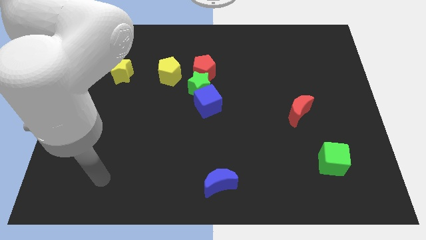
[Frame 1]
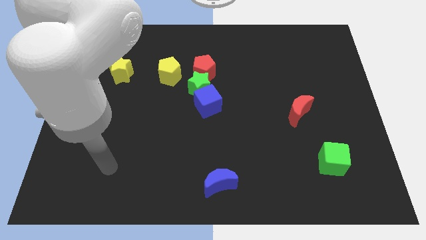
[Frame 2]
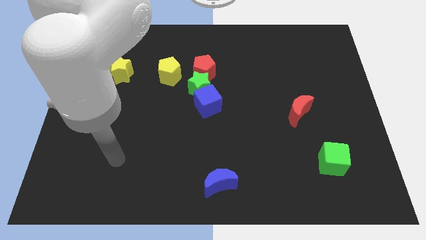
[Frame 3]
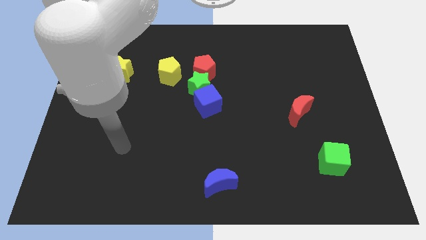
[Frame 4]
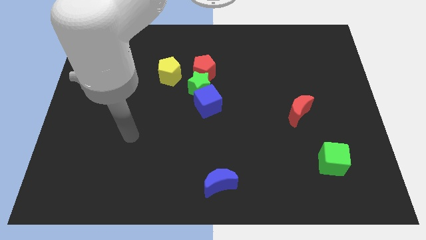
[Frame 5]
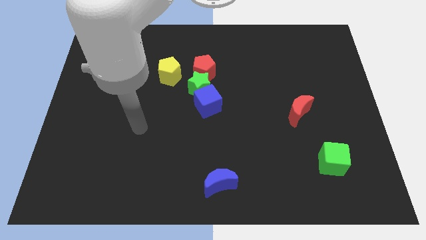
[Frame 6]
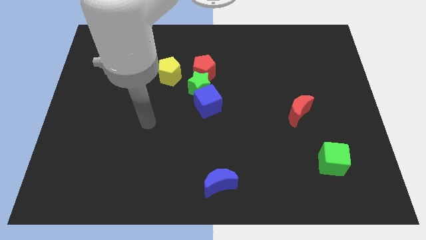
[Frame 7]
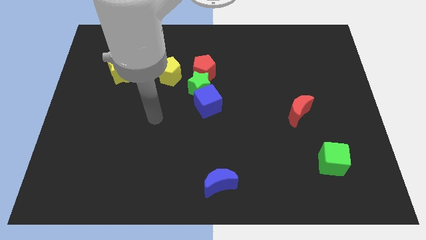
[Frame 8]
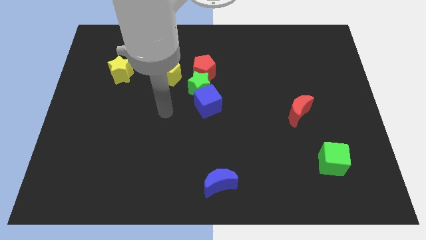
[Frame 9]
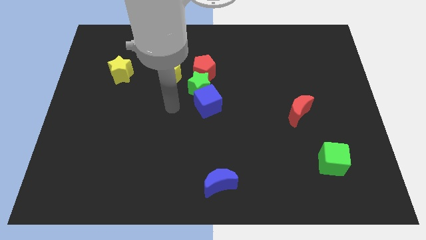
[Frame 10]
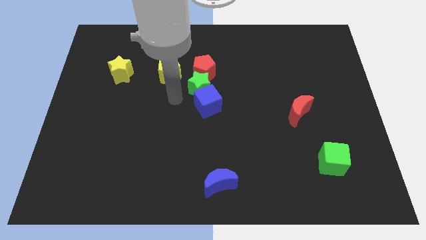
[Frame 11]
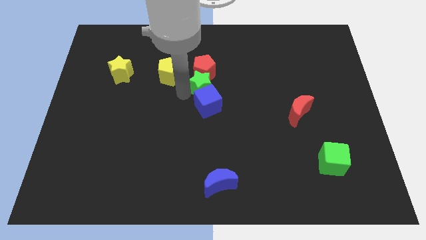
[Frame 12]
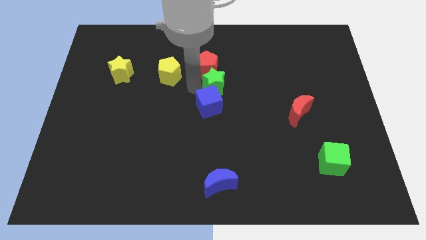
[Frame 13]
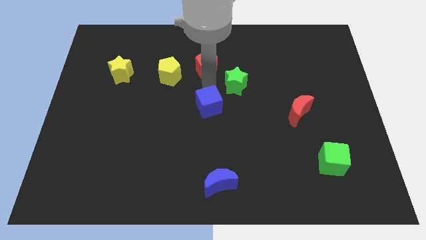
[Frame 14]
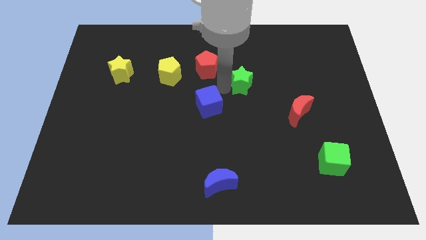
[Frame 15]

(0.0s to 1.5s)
pull the blue cube apart from the green star

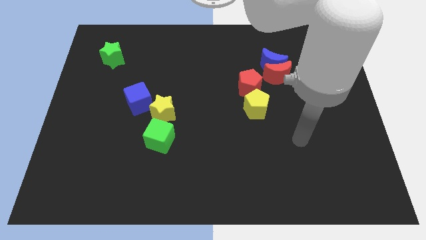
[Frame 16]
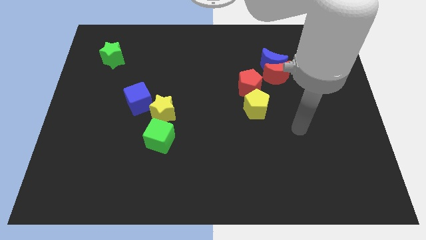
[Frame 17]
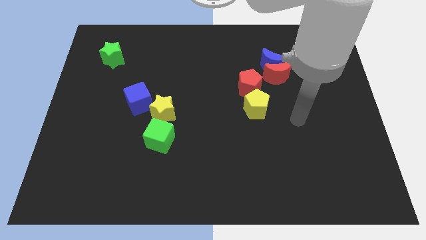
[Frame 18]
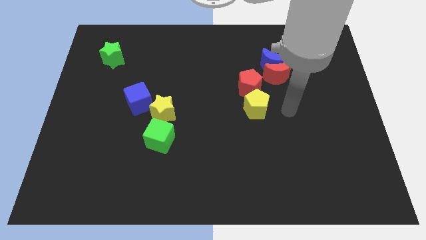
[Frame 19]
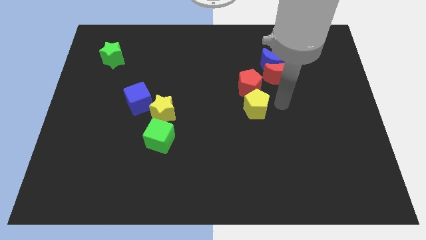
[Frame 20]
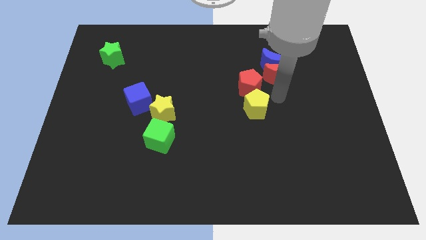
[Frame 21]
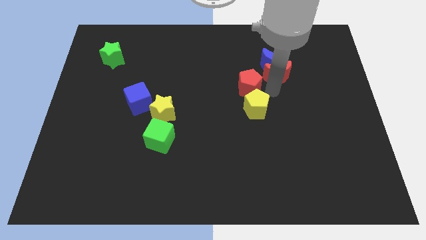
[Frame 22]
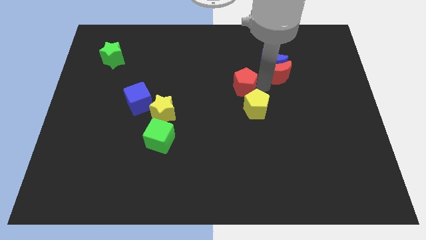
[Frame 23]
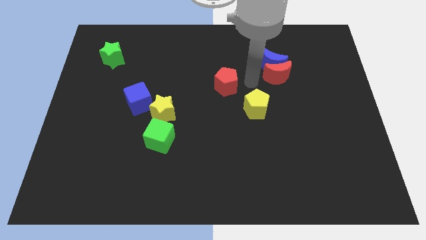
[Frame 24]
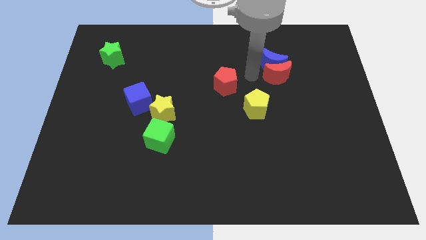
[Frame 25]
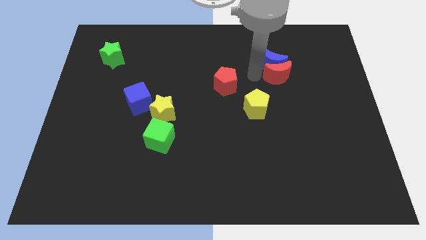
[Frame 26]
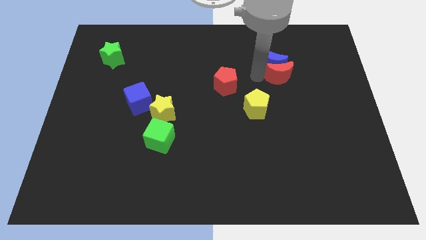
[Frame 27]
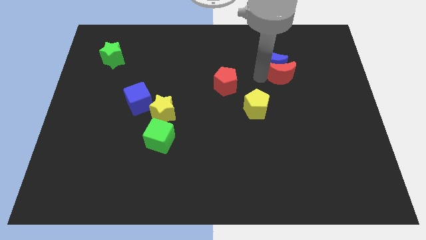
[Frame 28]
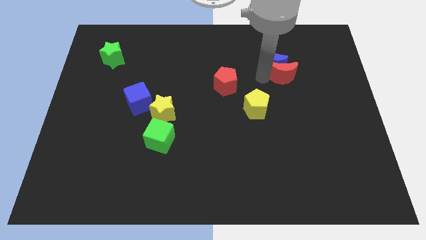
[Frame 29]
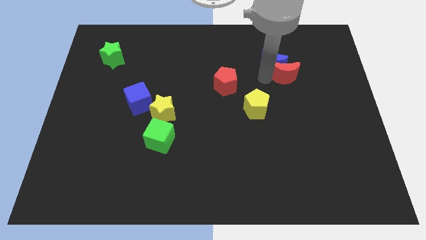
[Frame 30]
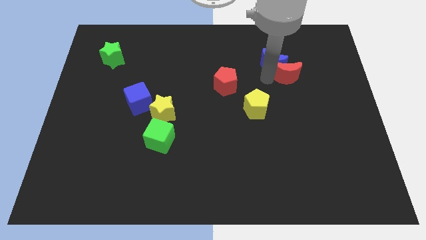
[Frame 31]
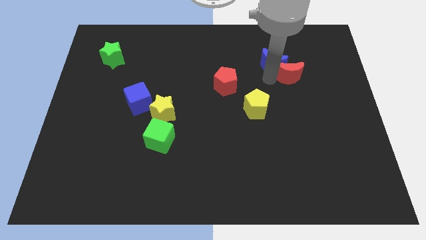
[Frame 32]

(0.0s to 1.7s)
pull the red moon apart from the blue moon and red pentagon

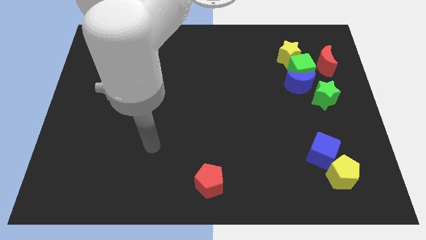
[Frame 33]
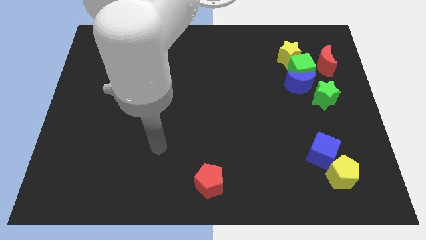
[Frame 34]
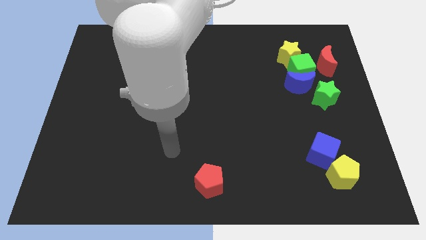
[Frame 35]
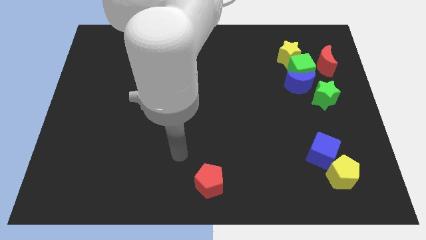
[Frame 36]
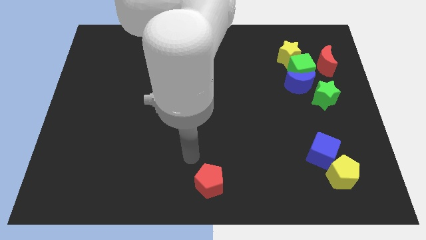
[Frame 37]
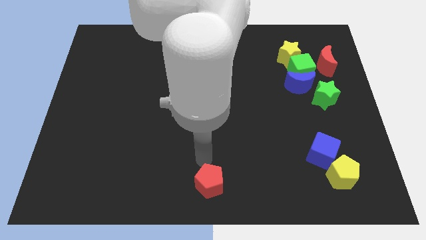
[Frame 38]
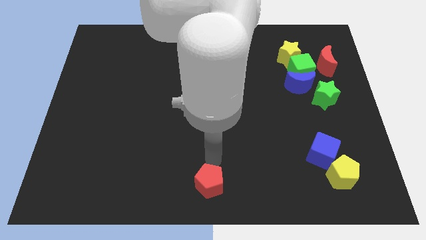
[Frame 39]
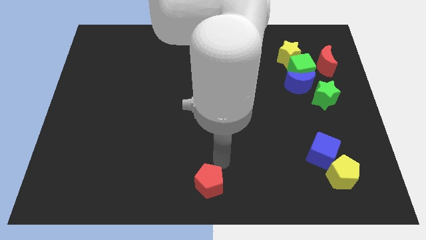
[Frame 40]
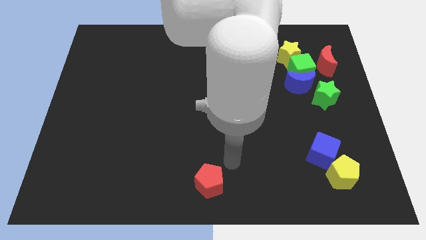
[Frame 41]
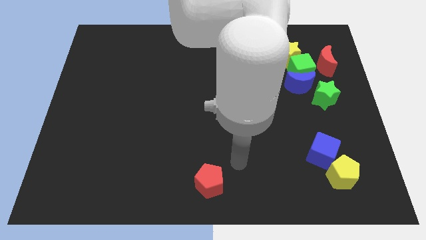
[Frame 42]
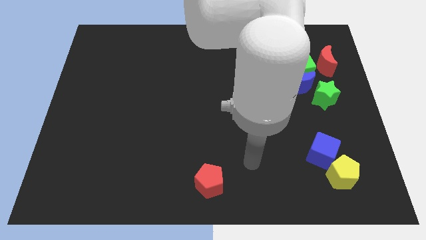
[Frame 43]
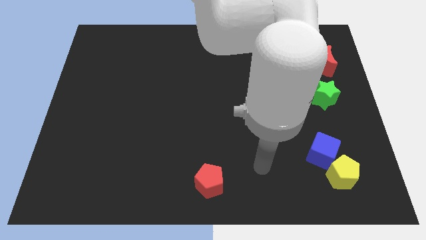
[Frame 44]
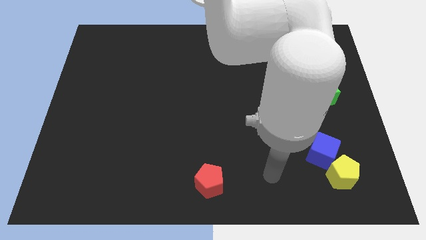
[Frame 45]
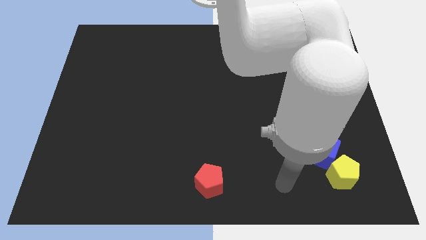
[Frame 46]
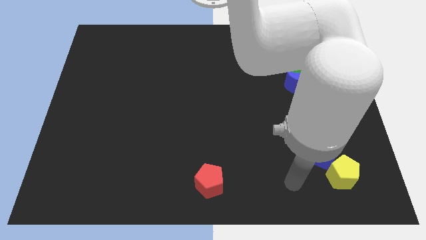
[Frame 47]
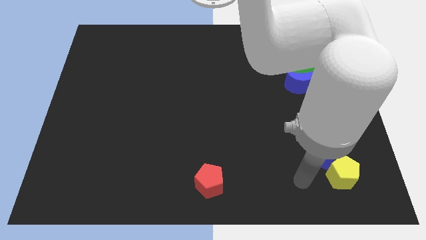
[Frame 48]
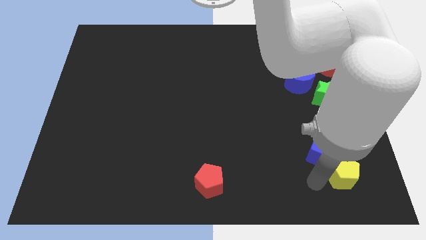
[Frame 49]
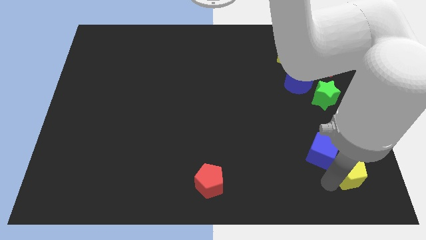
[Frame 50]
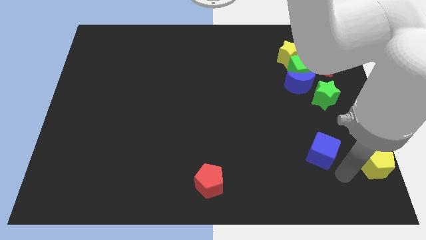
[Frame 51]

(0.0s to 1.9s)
move the blue cube away from the yellow pentagon

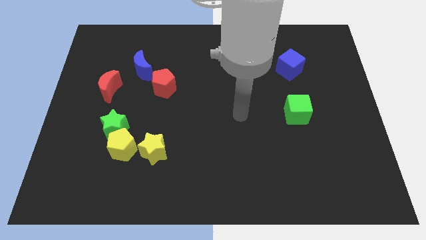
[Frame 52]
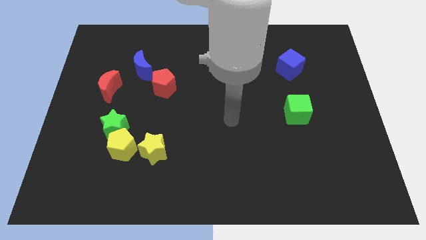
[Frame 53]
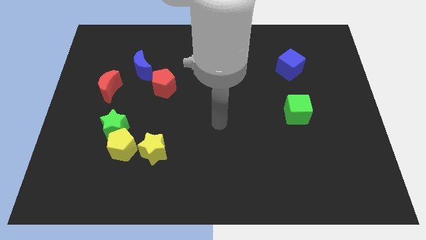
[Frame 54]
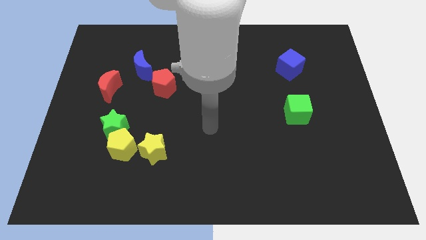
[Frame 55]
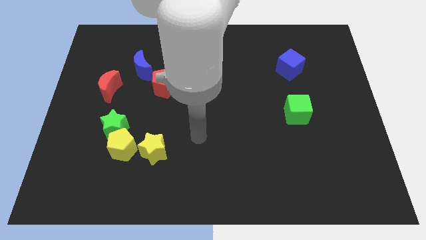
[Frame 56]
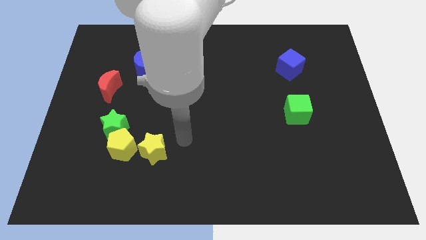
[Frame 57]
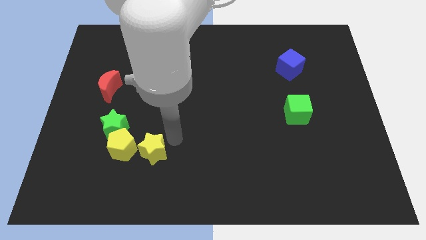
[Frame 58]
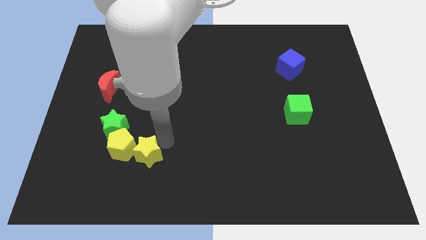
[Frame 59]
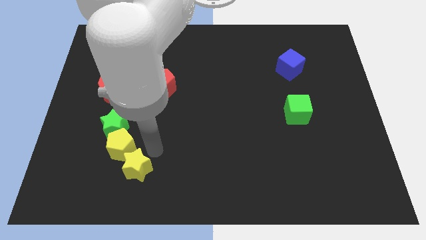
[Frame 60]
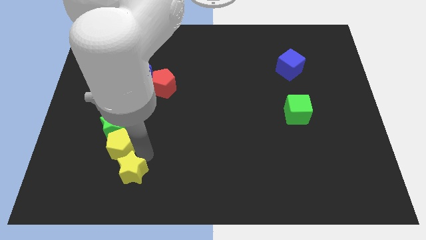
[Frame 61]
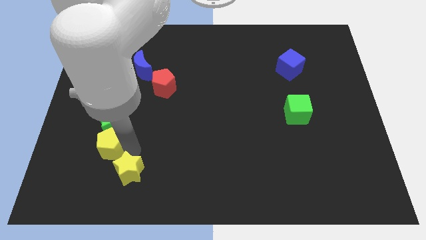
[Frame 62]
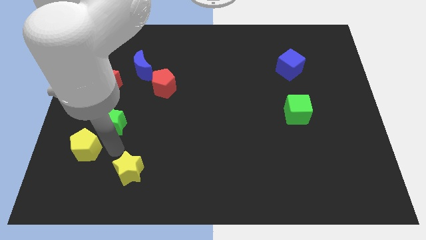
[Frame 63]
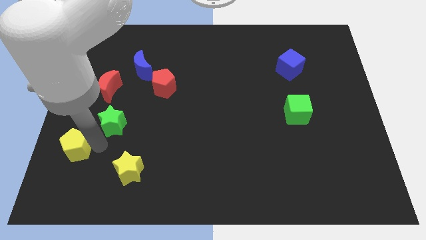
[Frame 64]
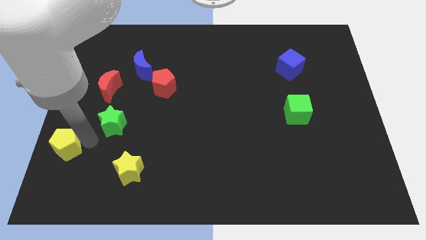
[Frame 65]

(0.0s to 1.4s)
move the green star away from the yellow pentagon

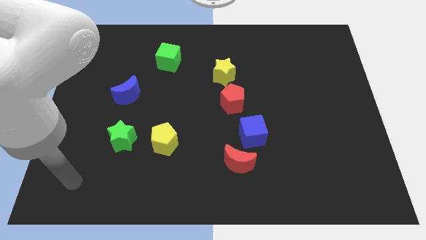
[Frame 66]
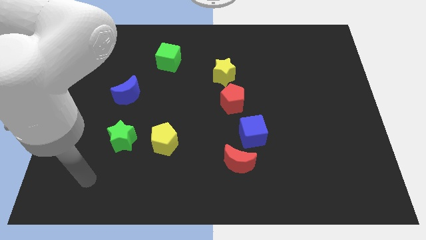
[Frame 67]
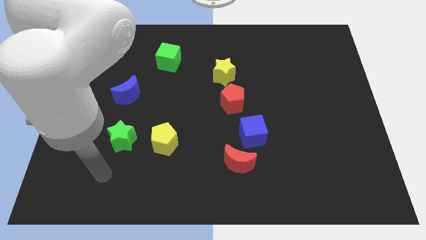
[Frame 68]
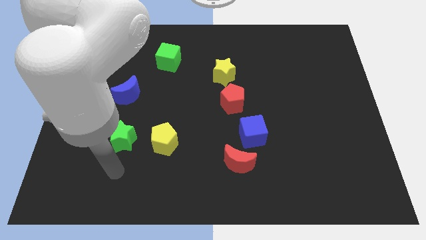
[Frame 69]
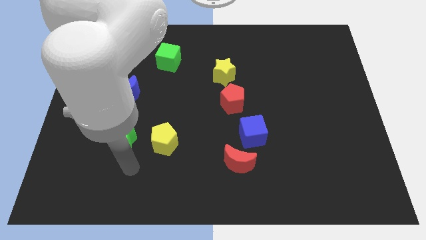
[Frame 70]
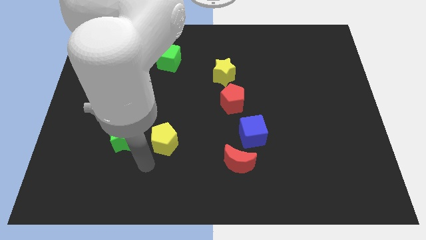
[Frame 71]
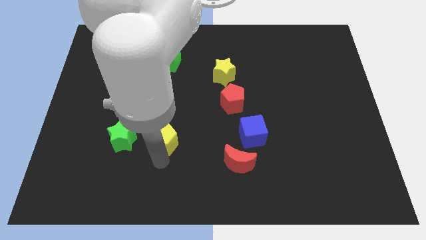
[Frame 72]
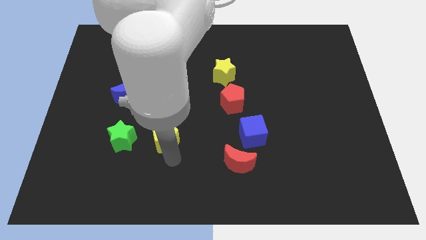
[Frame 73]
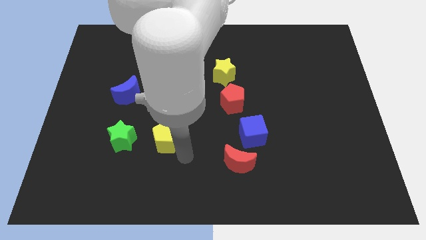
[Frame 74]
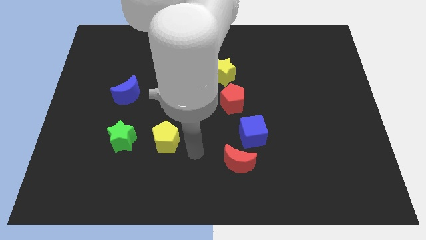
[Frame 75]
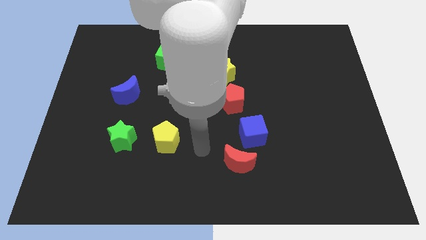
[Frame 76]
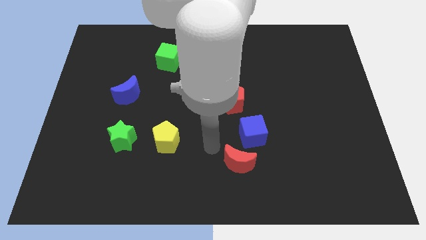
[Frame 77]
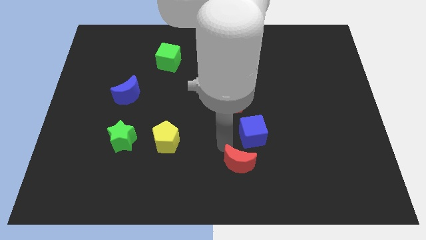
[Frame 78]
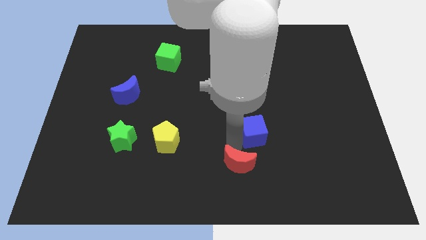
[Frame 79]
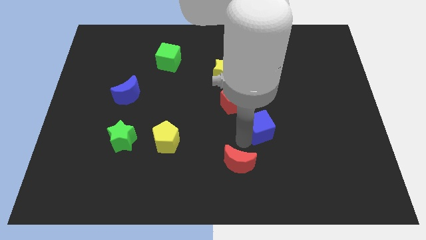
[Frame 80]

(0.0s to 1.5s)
pull the red moon apart from the blue cube

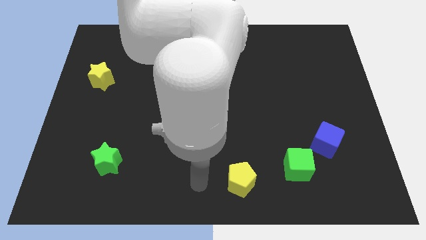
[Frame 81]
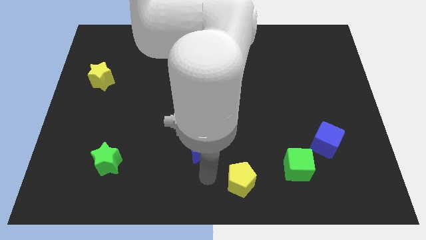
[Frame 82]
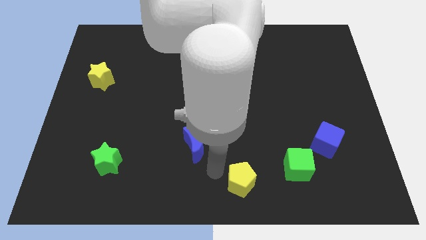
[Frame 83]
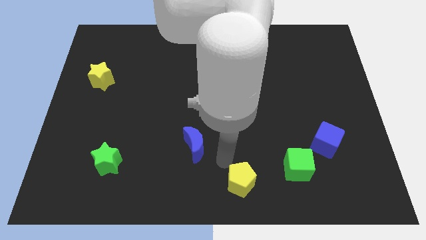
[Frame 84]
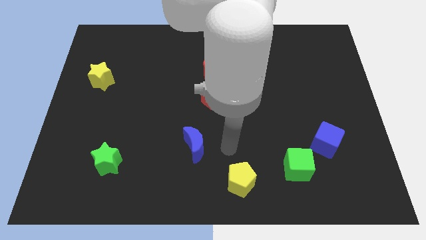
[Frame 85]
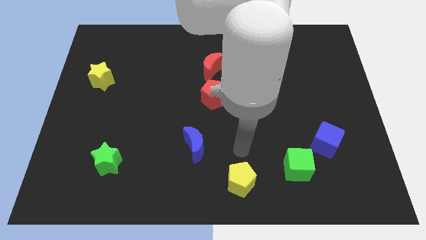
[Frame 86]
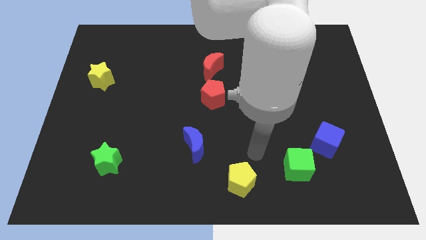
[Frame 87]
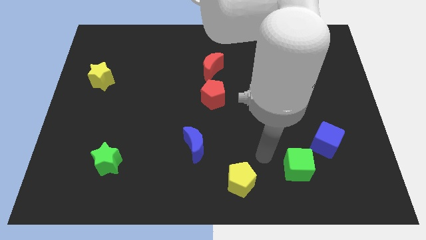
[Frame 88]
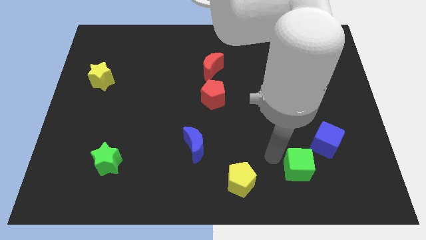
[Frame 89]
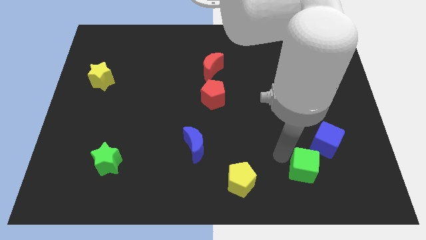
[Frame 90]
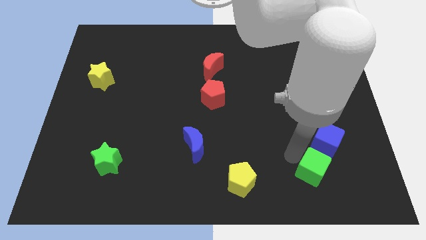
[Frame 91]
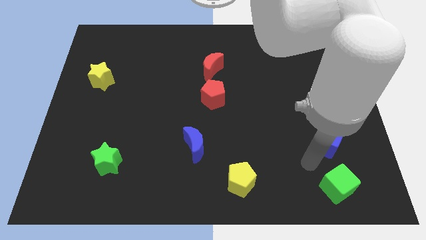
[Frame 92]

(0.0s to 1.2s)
pull the blue cube apart from the green cube

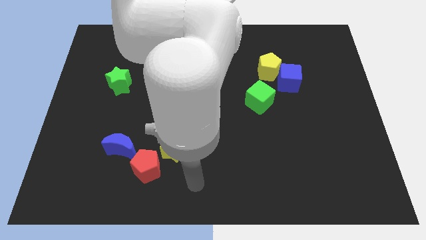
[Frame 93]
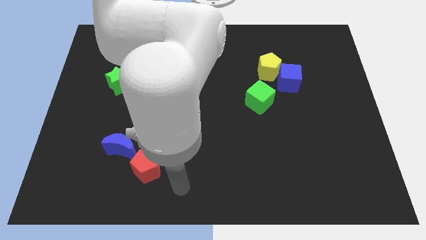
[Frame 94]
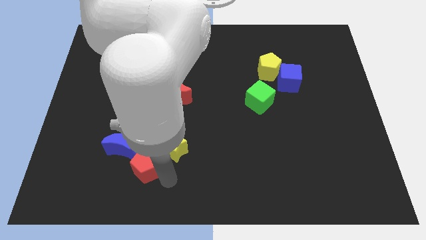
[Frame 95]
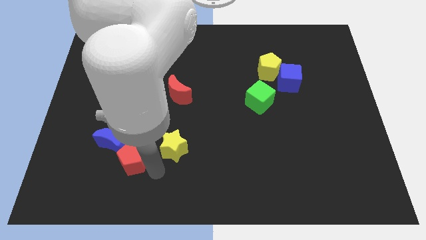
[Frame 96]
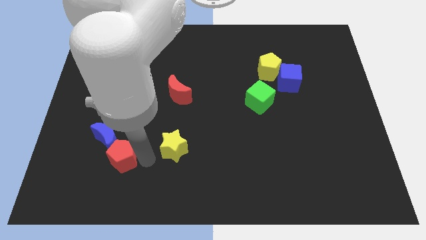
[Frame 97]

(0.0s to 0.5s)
pull the yellow star apart from the red pentagon
